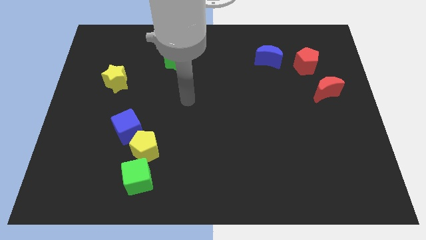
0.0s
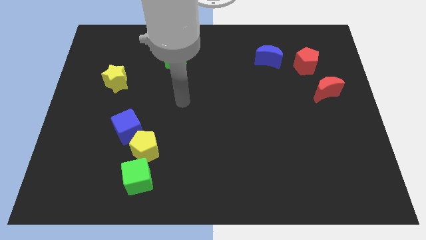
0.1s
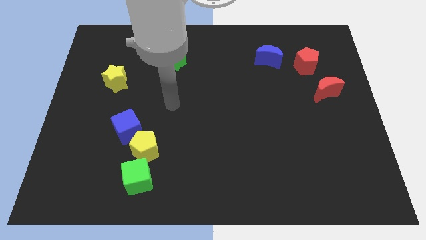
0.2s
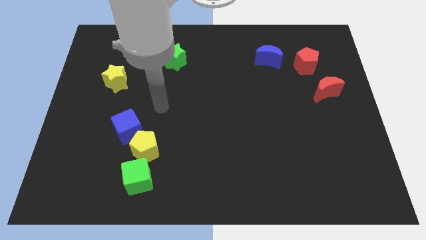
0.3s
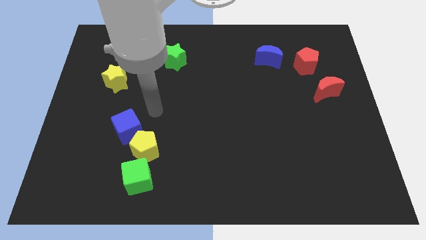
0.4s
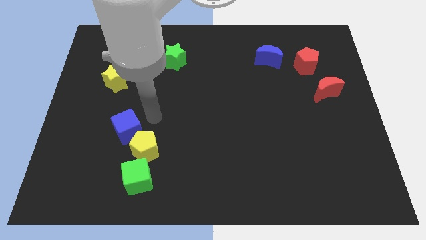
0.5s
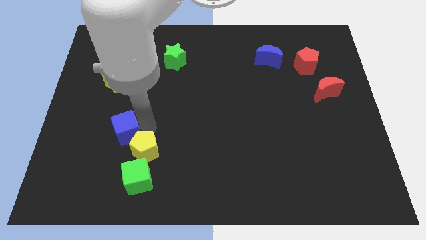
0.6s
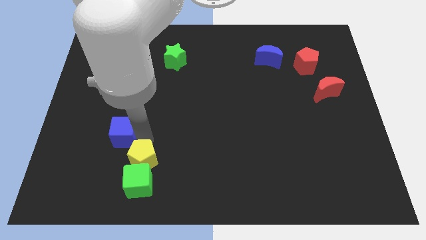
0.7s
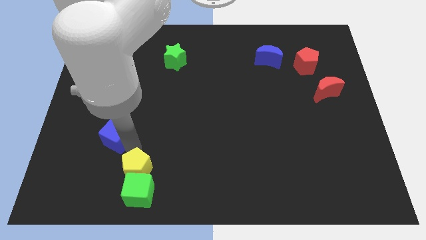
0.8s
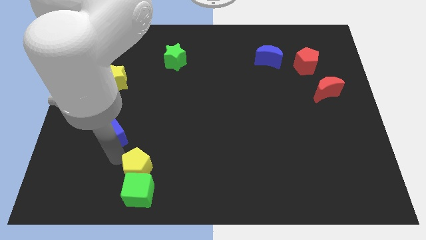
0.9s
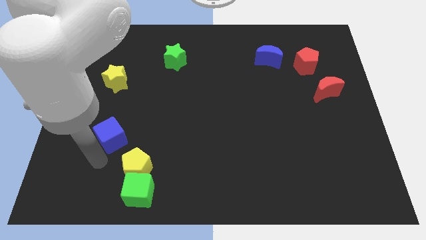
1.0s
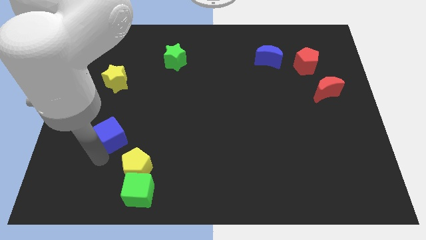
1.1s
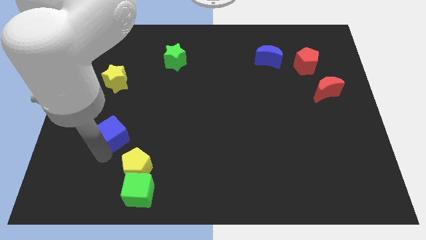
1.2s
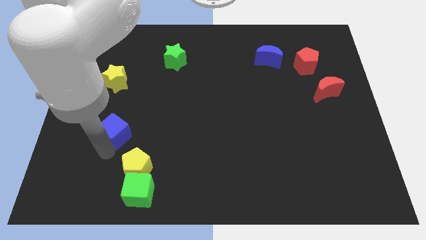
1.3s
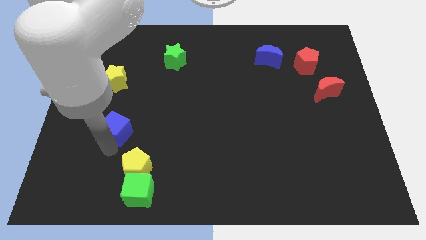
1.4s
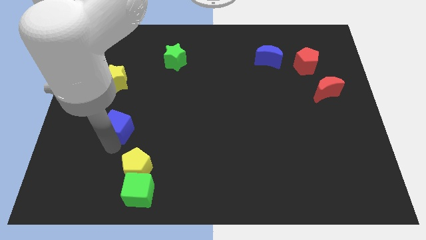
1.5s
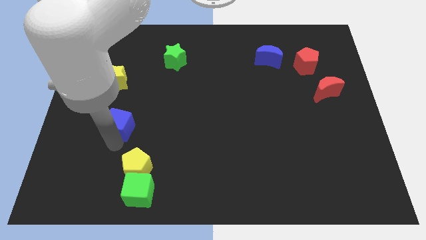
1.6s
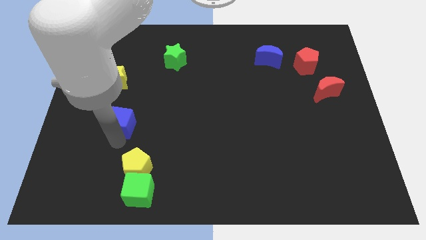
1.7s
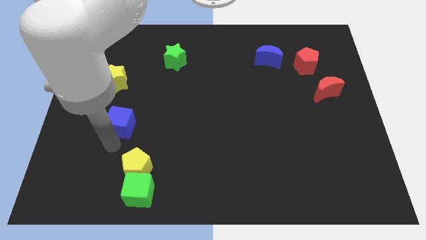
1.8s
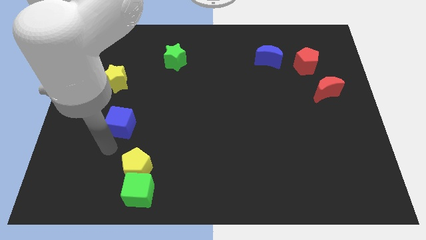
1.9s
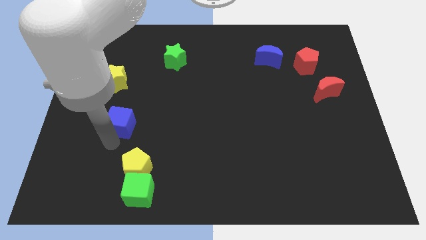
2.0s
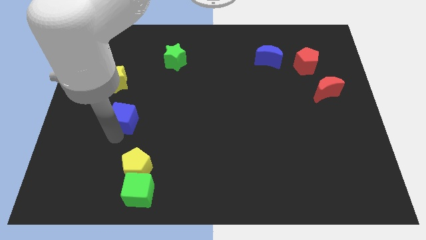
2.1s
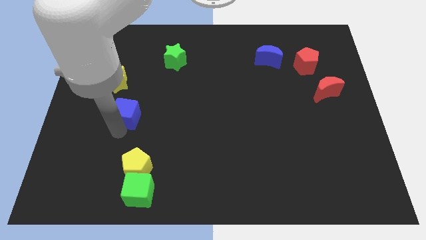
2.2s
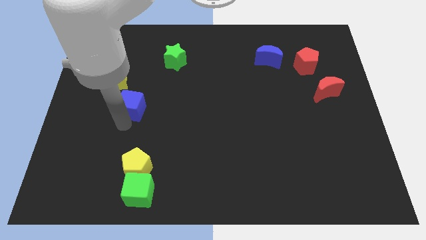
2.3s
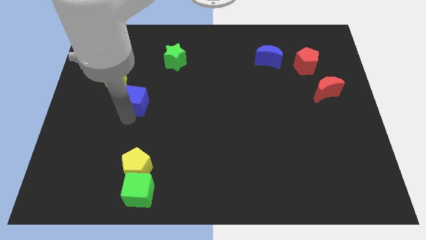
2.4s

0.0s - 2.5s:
move the blue cube a bit upwards

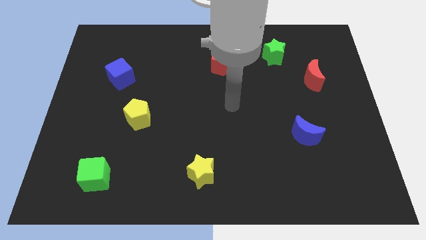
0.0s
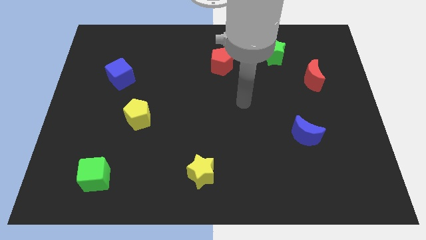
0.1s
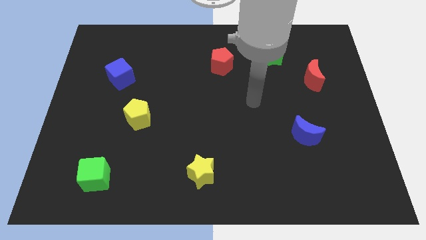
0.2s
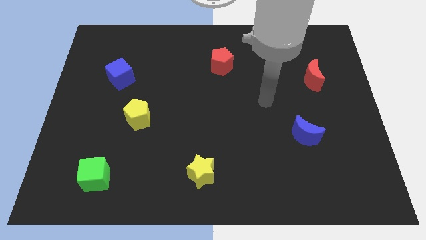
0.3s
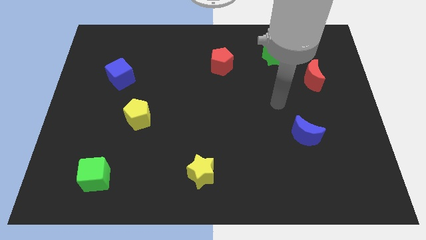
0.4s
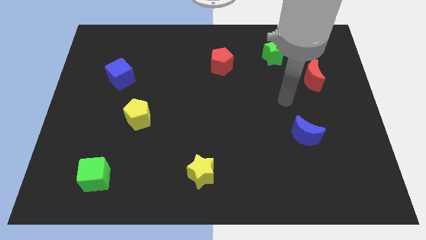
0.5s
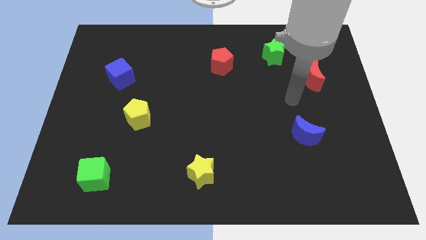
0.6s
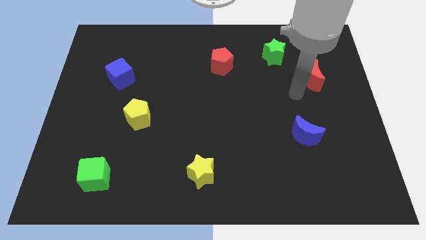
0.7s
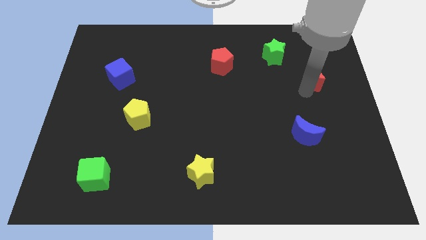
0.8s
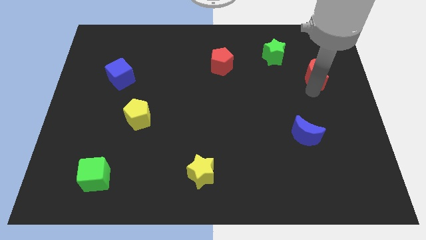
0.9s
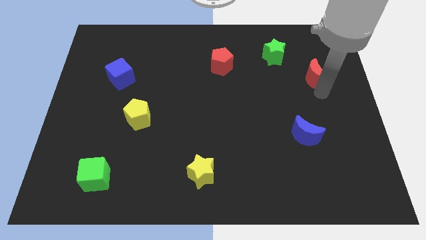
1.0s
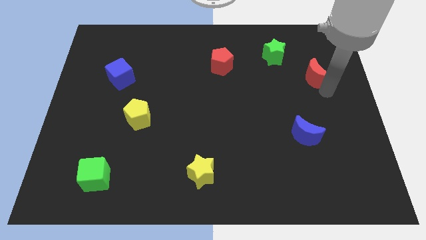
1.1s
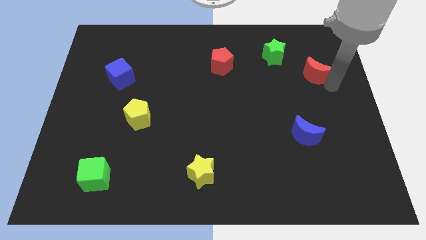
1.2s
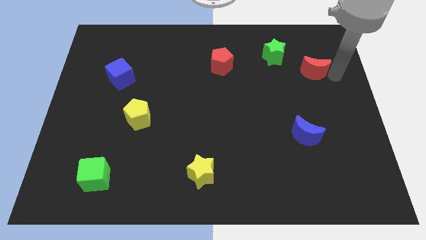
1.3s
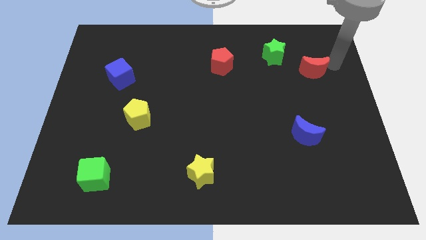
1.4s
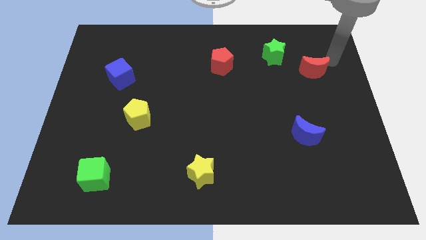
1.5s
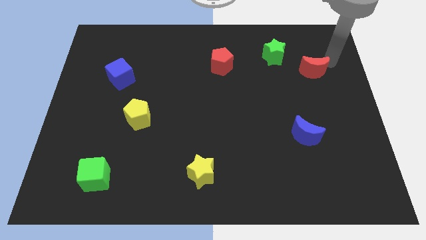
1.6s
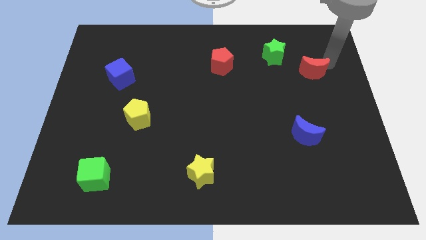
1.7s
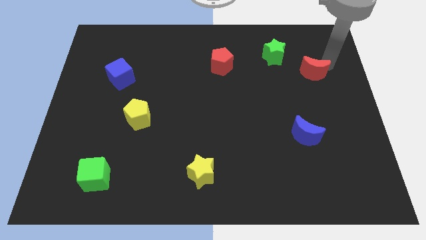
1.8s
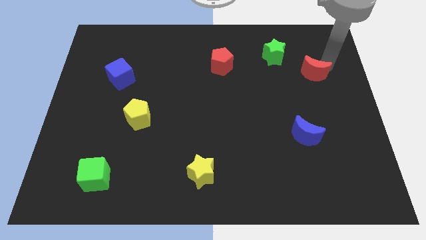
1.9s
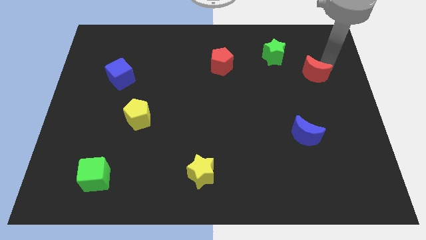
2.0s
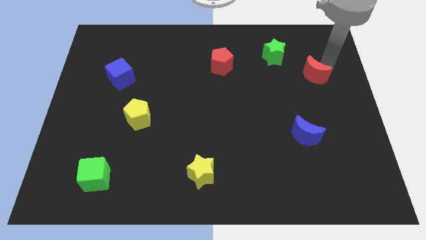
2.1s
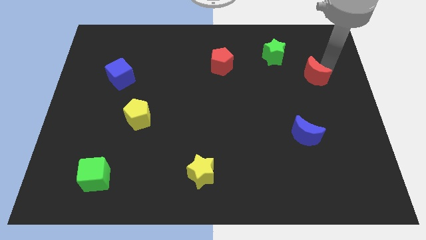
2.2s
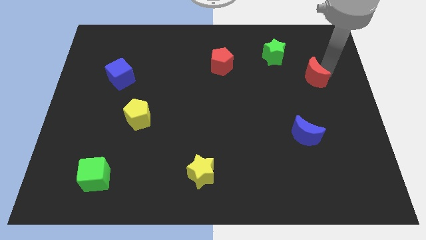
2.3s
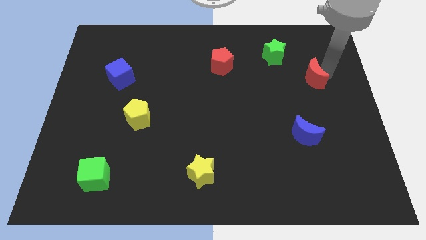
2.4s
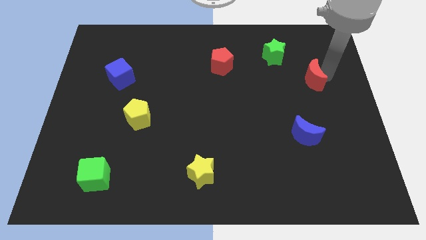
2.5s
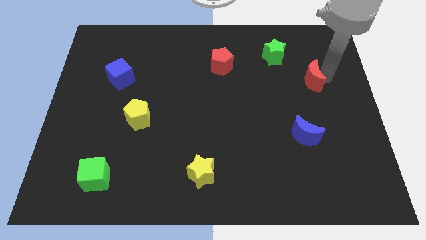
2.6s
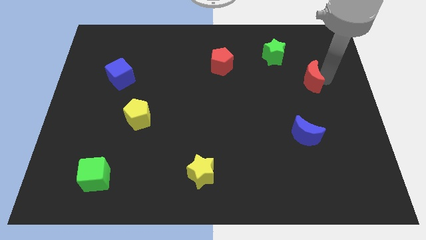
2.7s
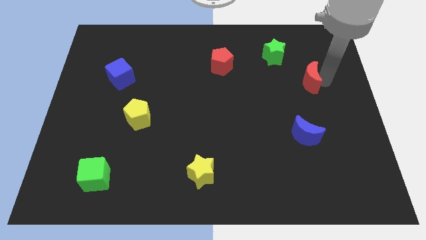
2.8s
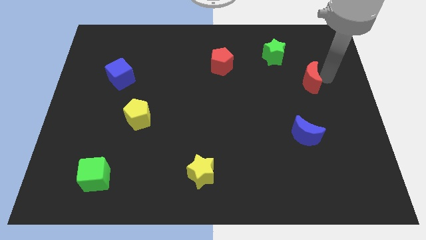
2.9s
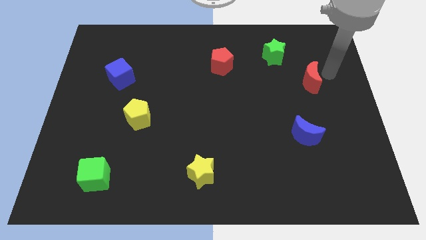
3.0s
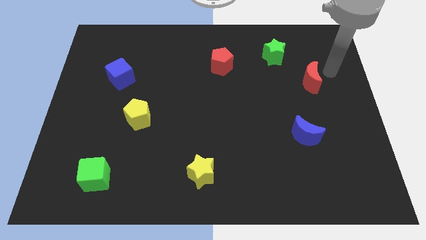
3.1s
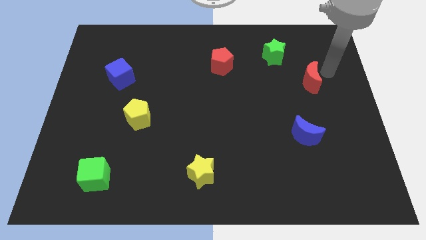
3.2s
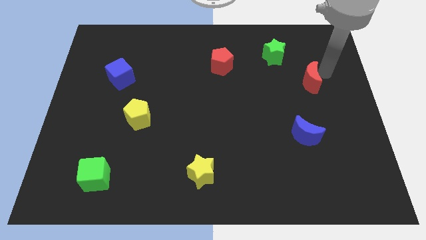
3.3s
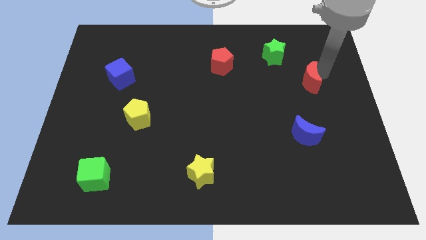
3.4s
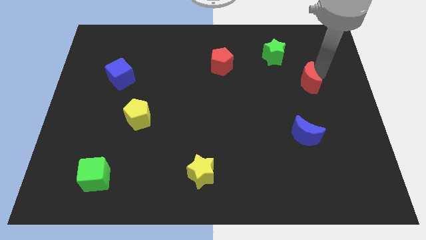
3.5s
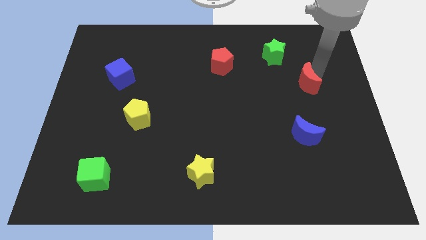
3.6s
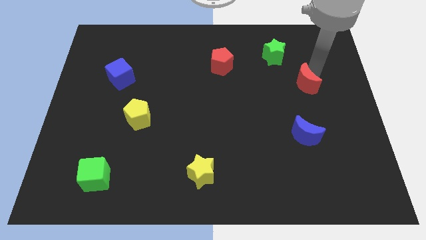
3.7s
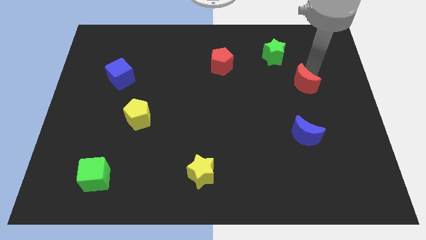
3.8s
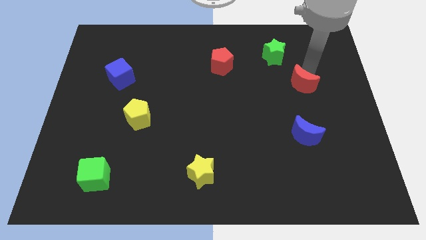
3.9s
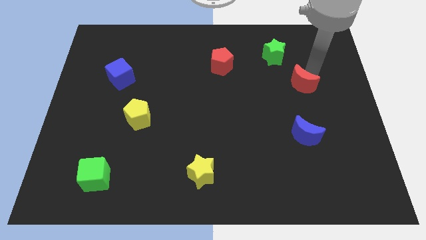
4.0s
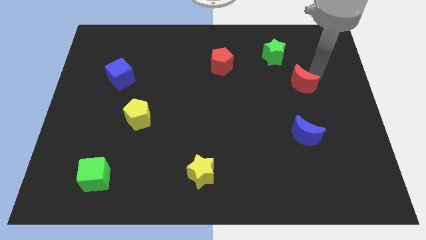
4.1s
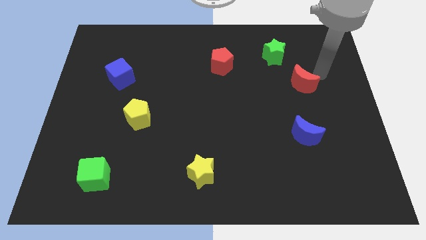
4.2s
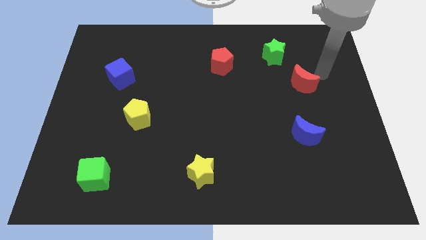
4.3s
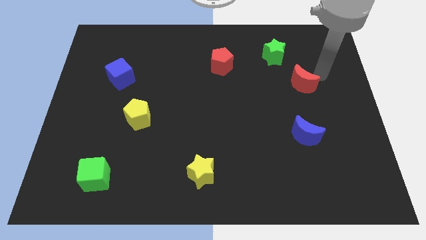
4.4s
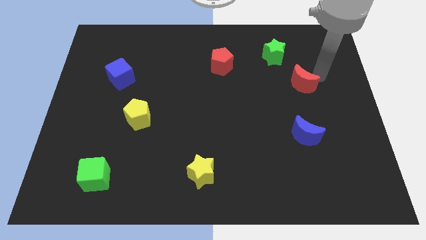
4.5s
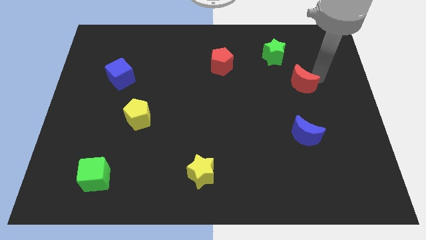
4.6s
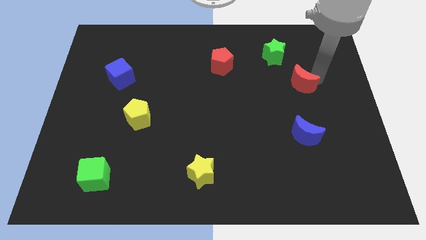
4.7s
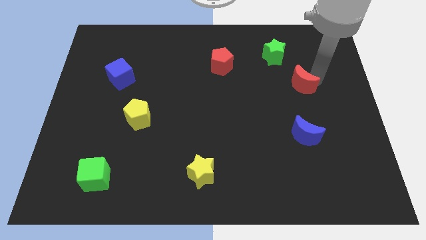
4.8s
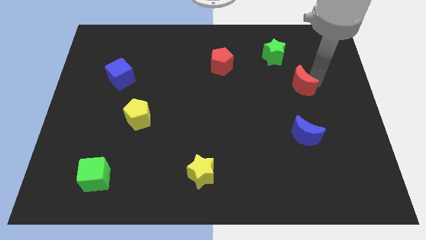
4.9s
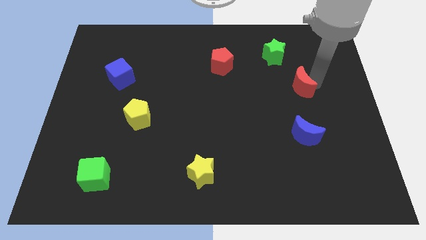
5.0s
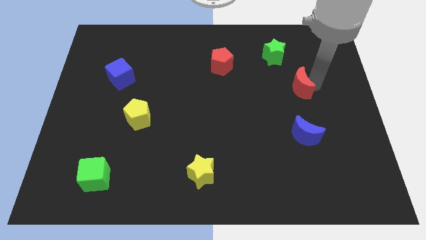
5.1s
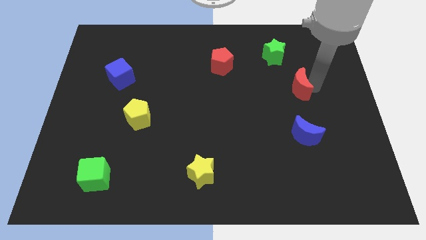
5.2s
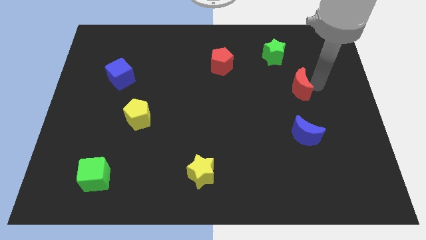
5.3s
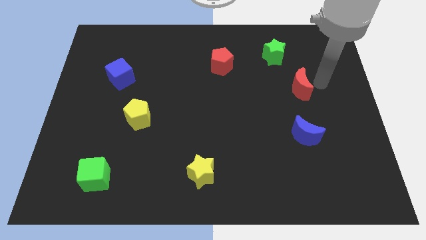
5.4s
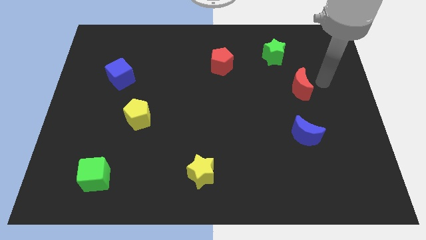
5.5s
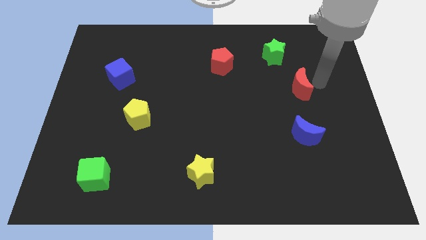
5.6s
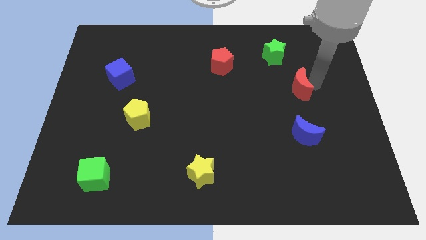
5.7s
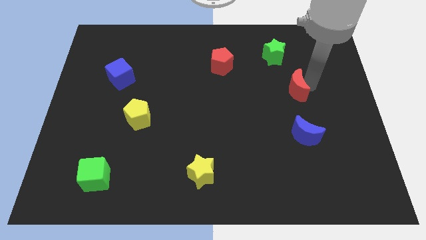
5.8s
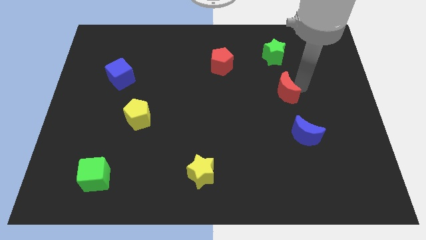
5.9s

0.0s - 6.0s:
move the red moon a little bit downwards and to the left diagonally
